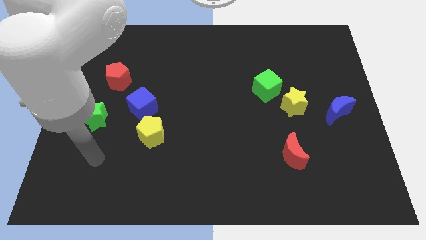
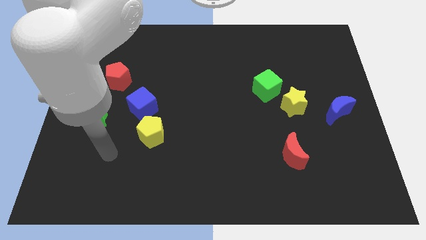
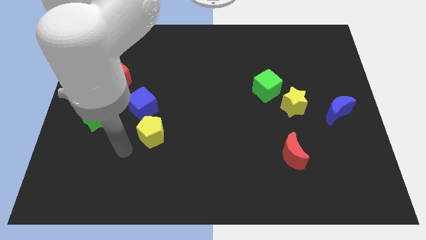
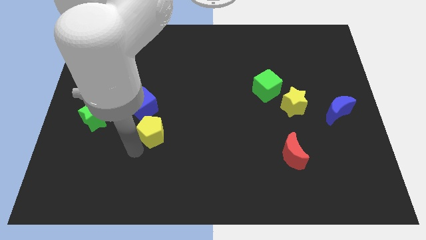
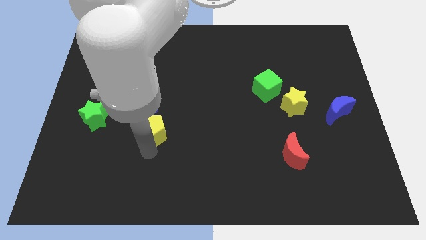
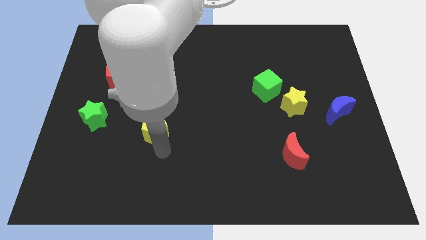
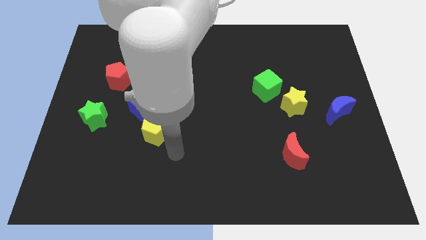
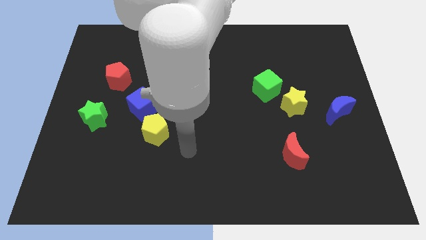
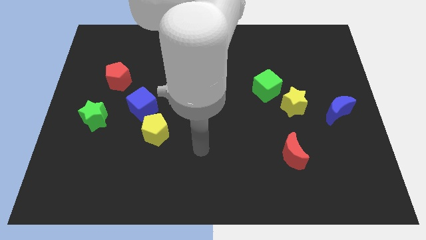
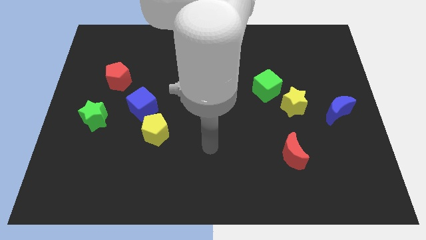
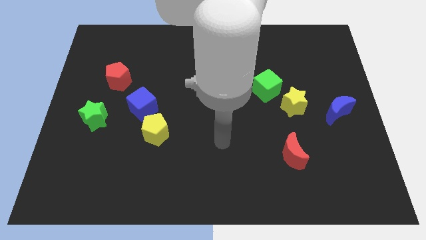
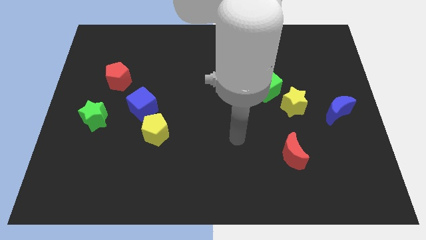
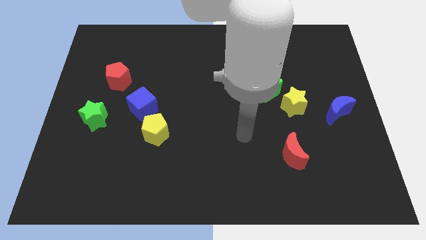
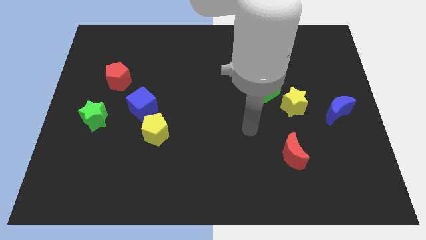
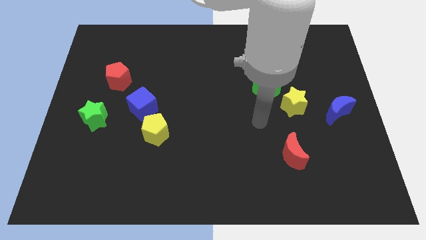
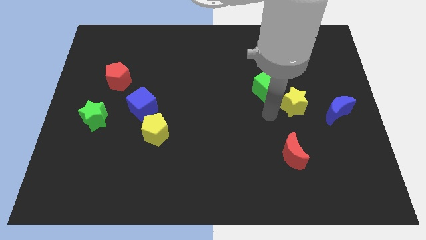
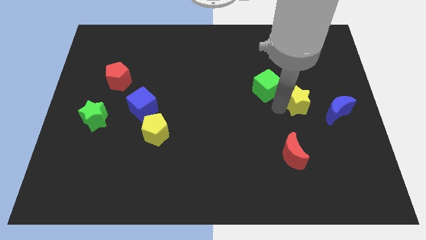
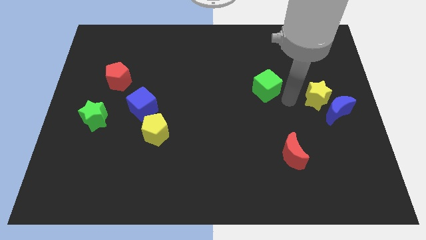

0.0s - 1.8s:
separate the green cube from the yellow star

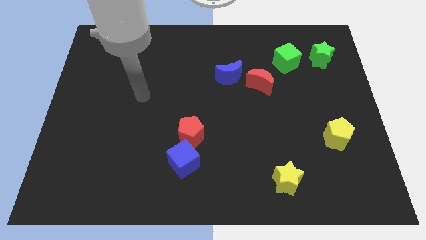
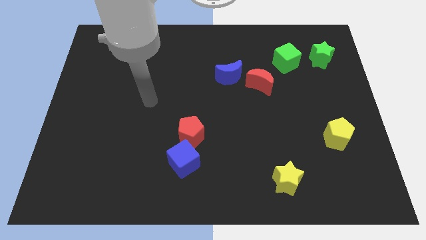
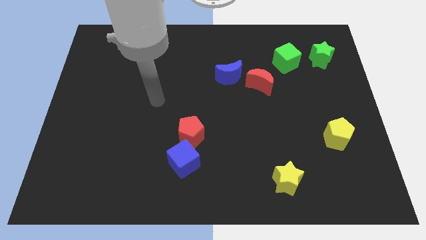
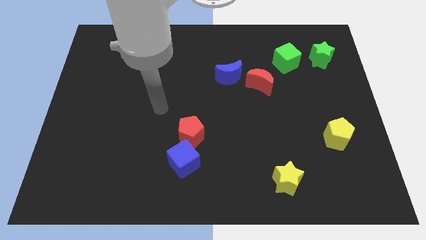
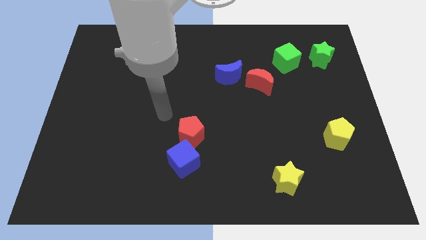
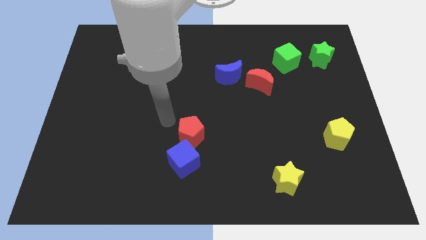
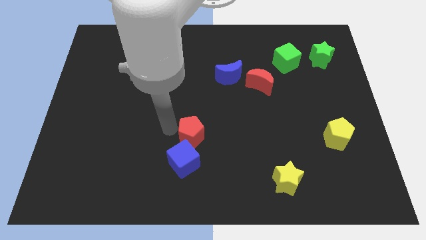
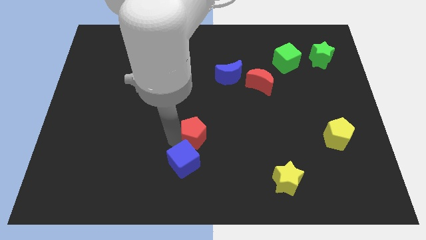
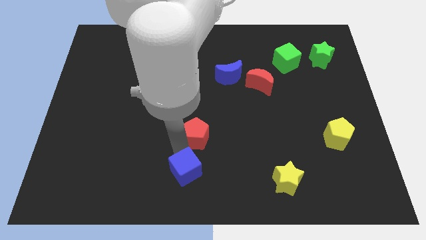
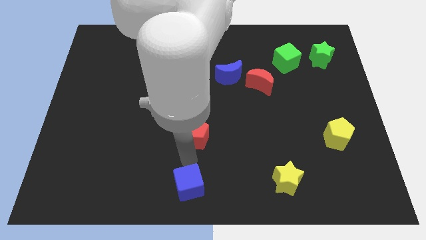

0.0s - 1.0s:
move the red pentagon away from the blue cube

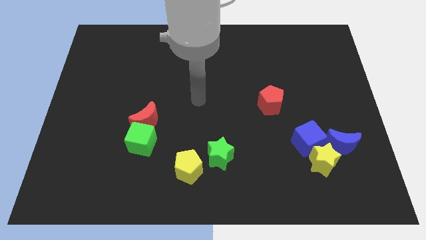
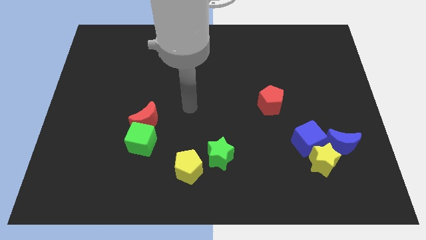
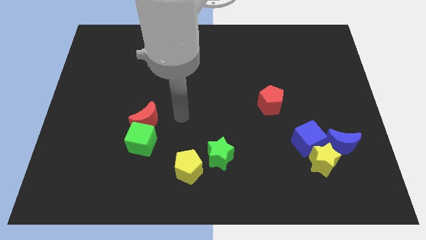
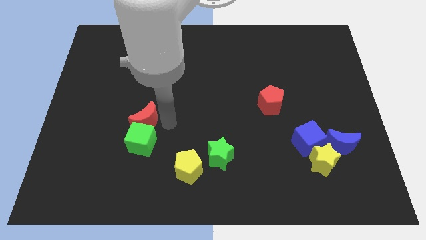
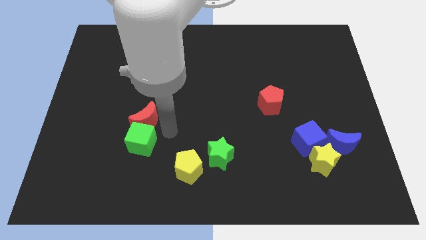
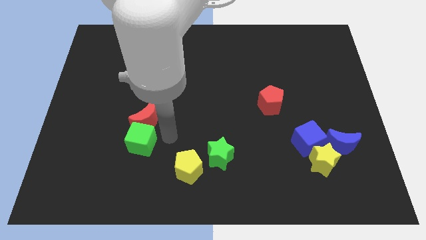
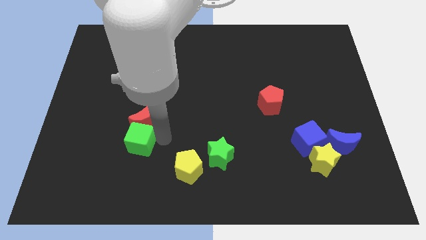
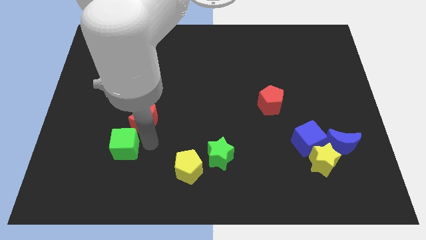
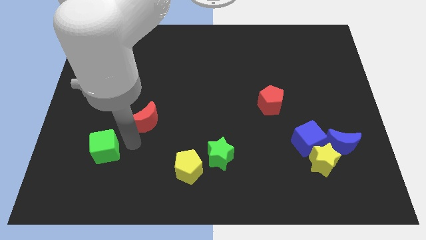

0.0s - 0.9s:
move the red moon away from the green cube

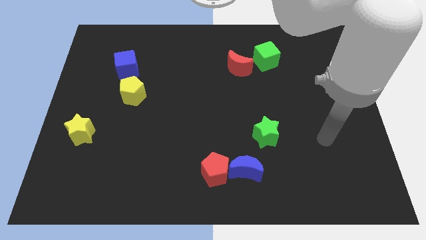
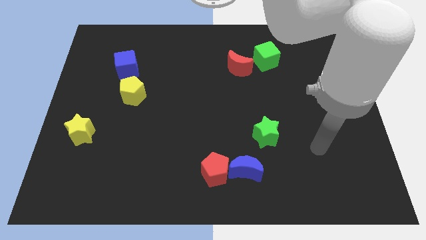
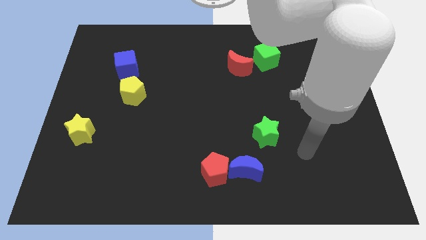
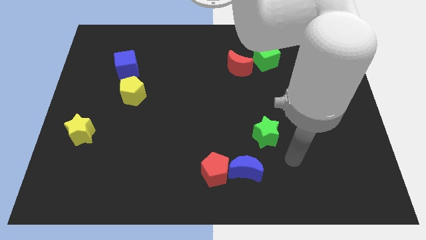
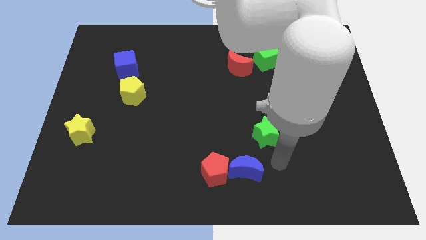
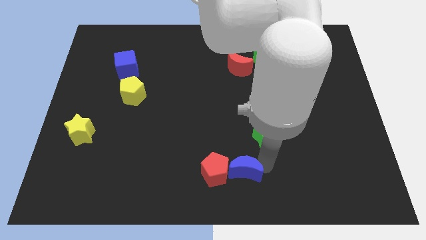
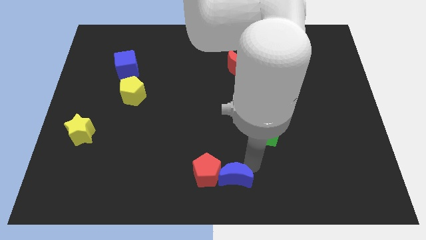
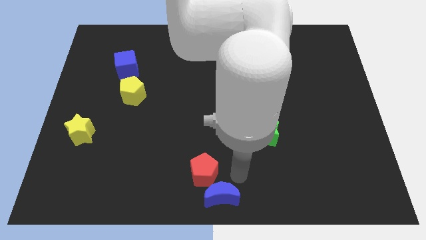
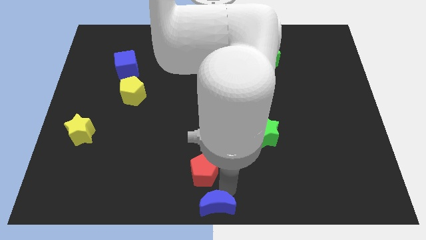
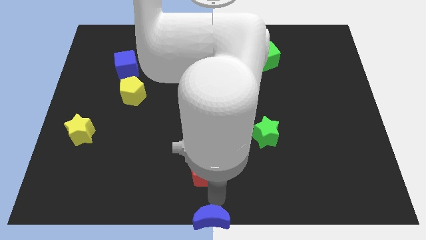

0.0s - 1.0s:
pull the red pentagon apart from the blue moon

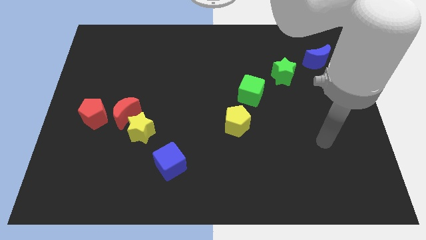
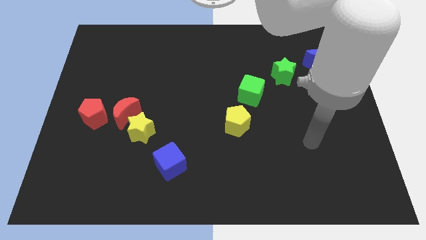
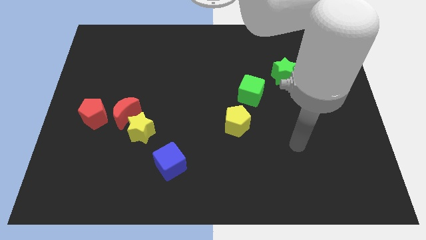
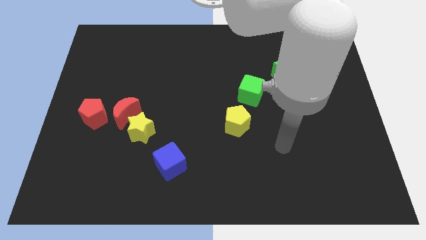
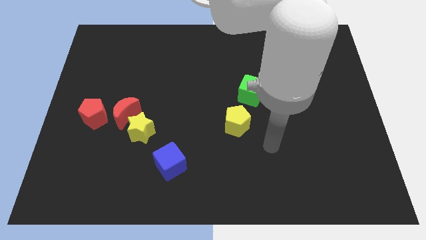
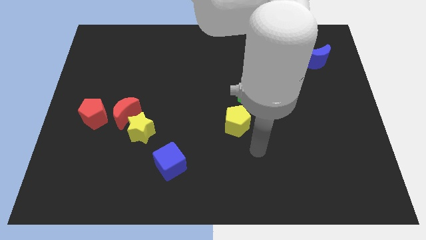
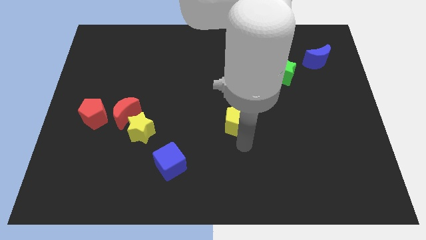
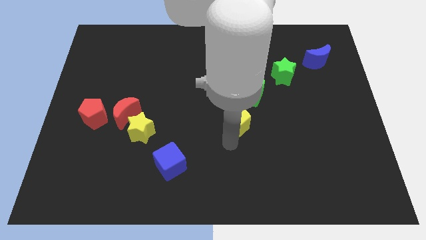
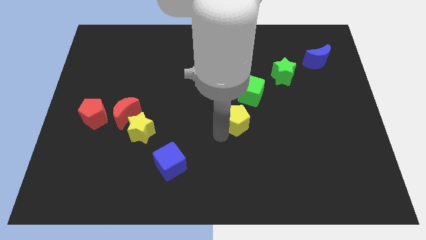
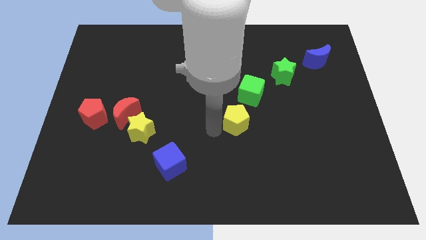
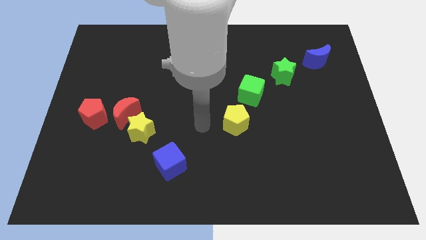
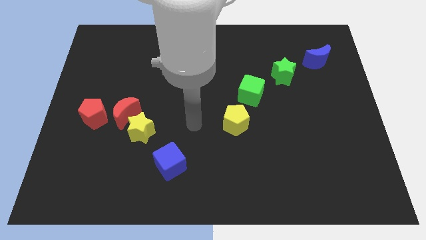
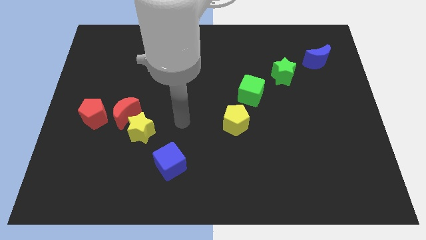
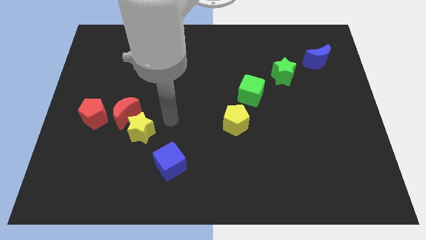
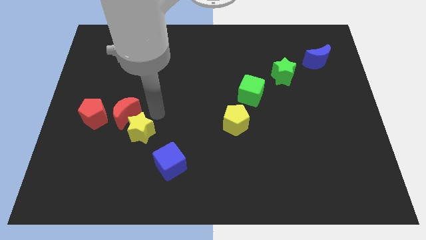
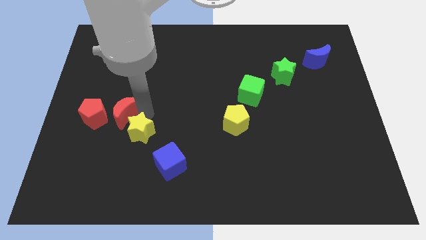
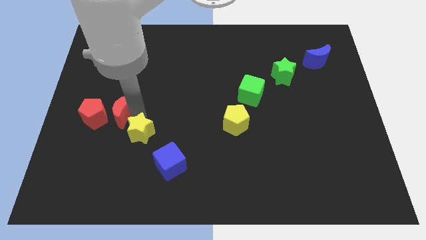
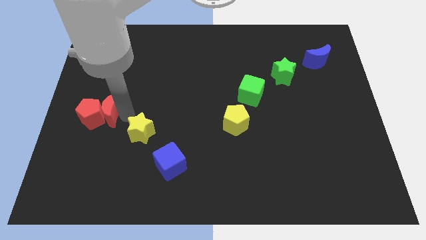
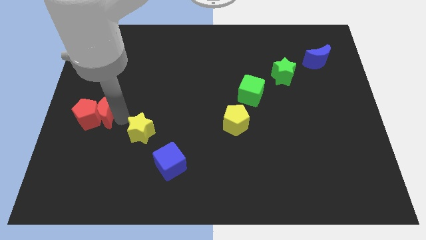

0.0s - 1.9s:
pull the yellow star apart from the red moon

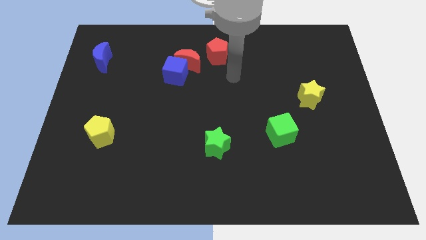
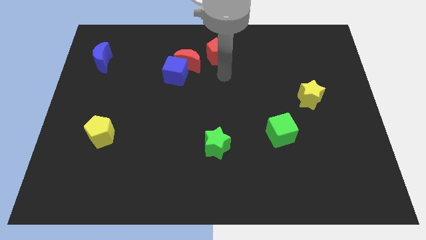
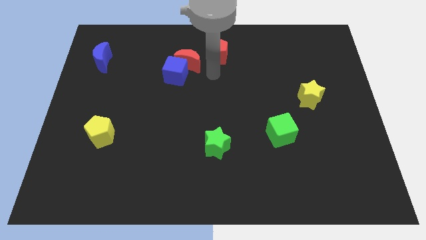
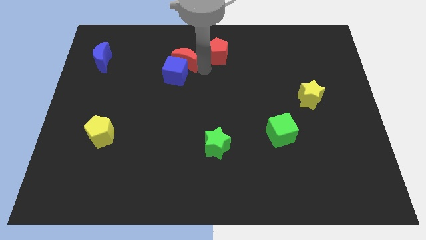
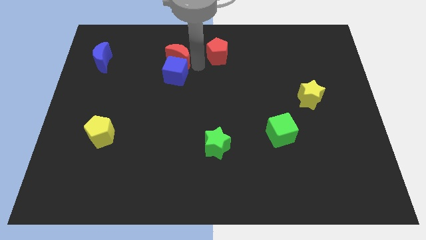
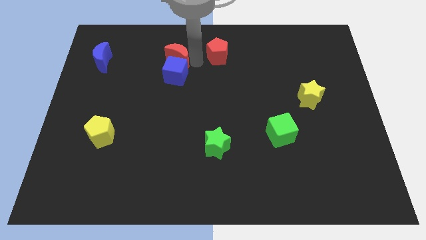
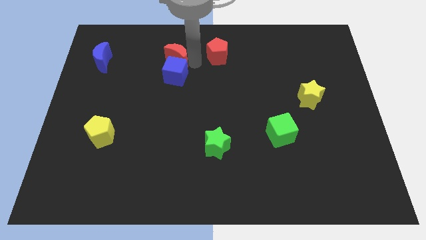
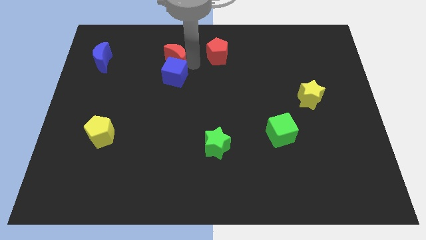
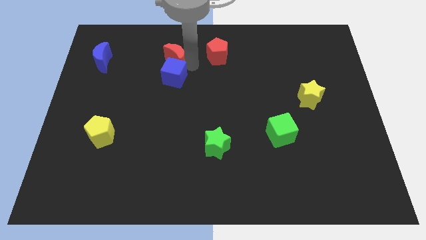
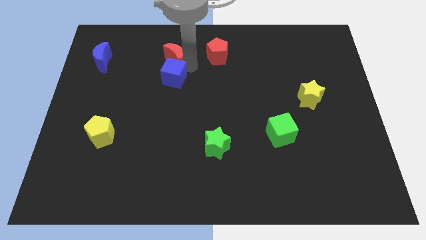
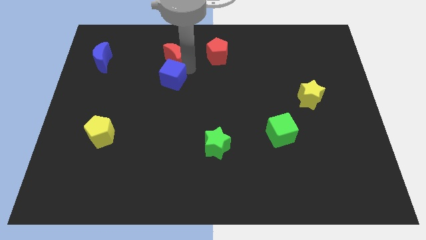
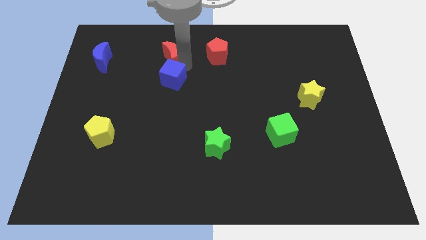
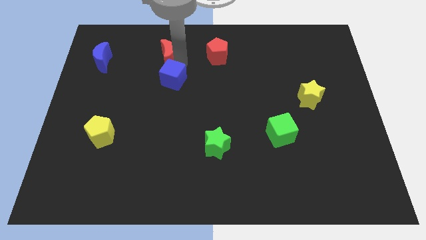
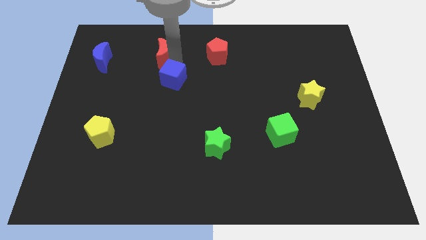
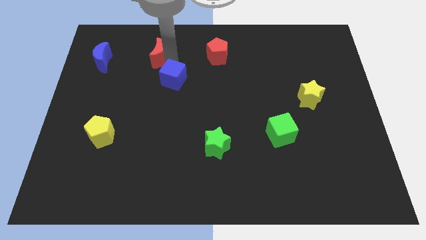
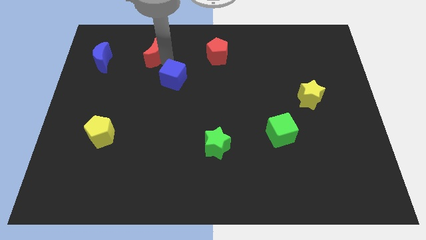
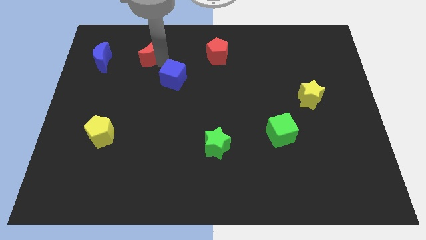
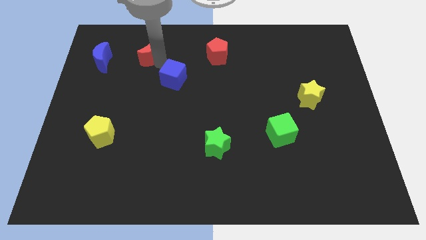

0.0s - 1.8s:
pull the blue cube apart from the red moon

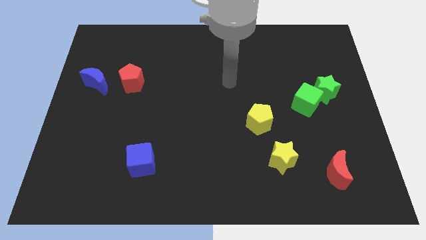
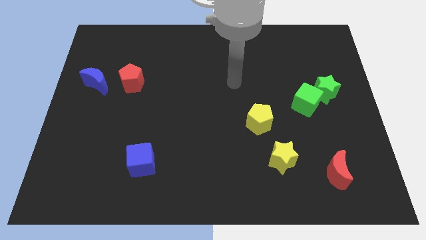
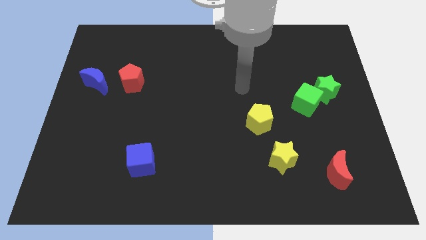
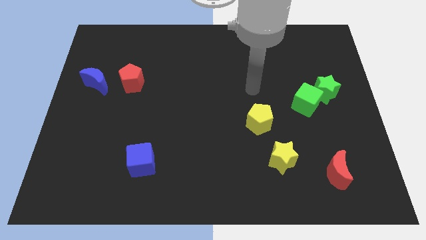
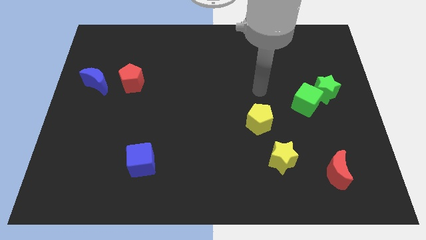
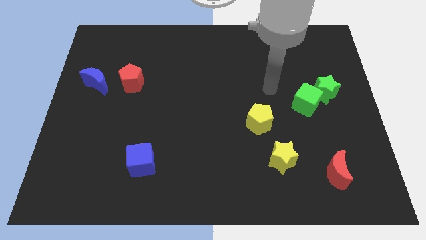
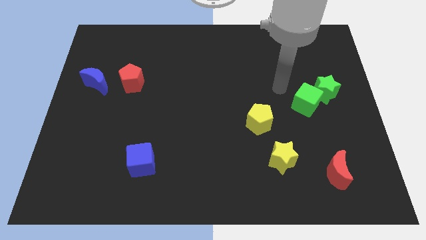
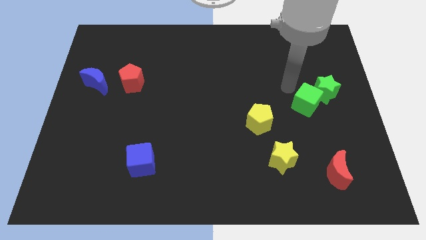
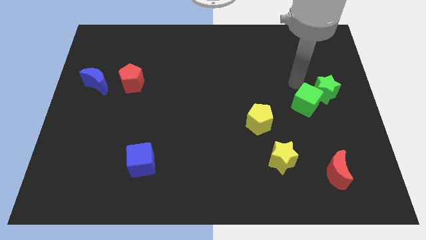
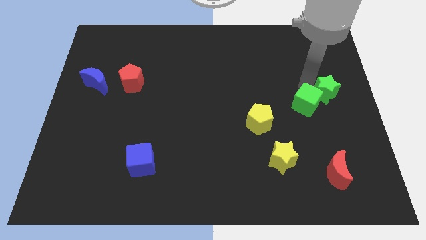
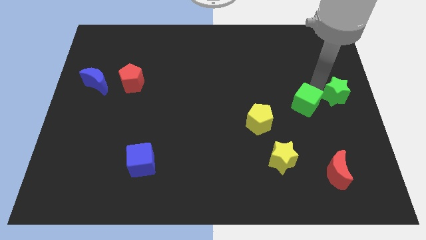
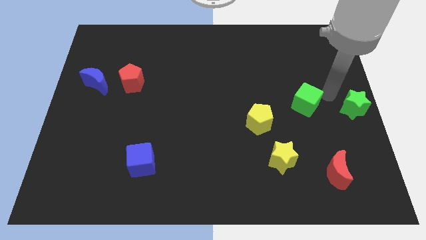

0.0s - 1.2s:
pull the green cube apart from the green star
